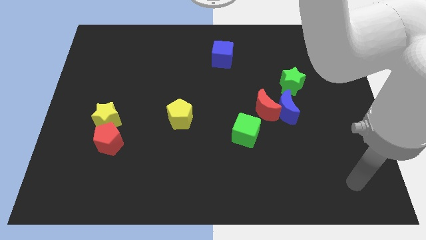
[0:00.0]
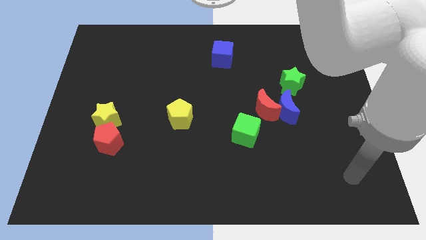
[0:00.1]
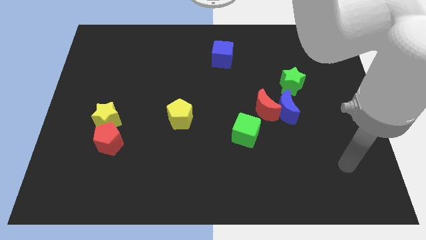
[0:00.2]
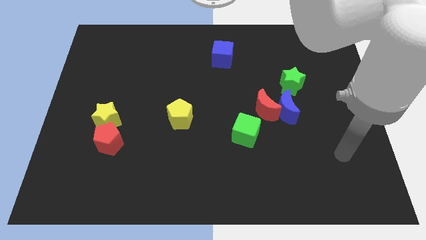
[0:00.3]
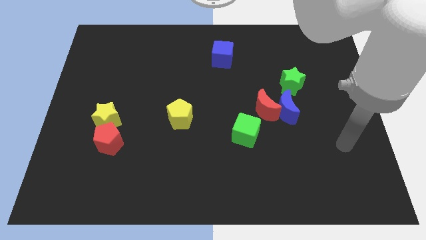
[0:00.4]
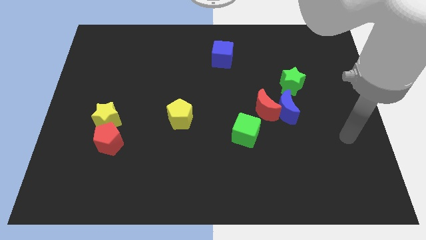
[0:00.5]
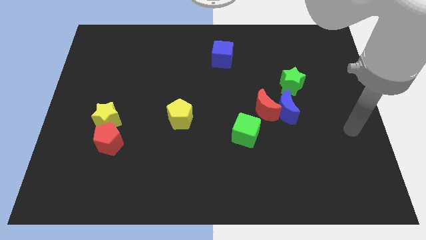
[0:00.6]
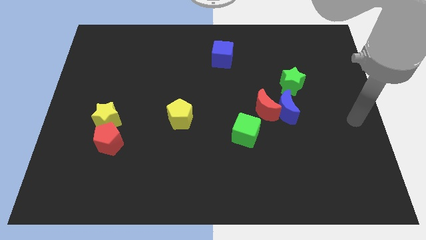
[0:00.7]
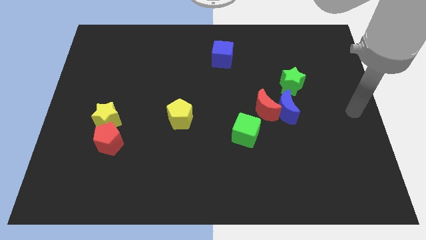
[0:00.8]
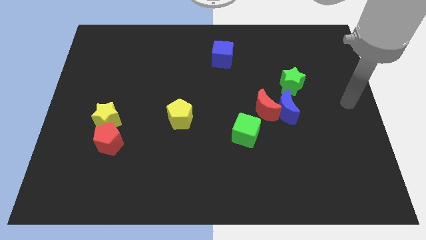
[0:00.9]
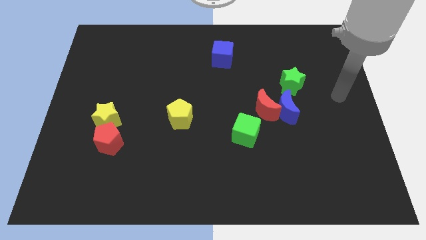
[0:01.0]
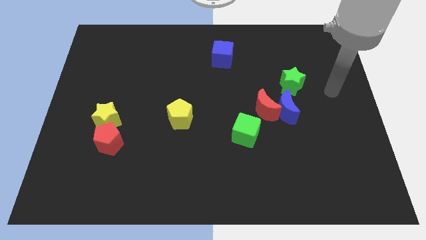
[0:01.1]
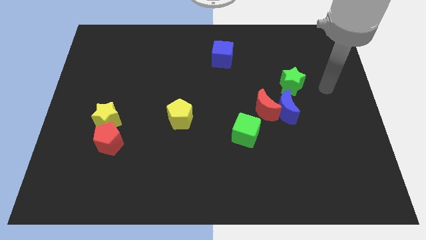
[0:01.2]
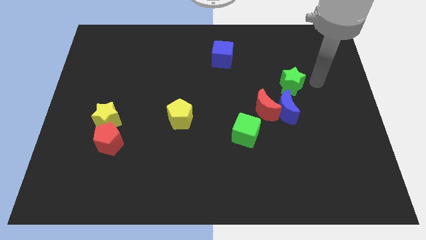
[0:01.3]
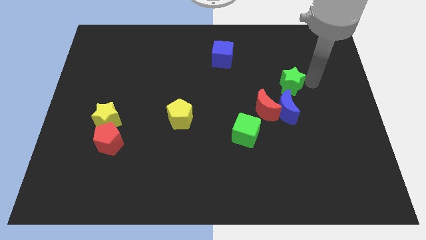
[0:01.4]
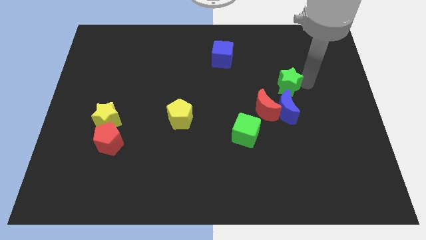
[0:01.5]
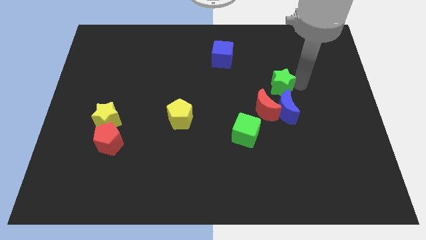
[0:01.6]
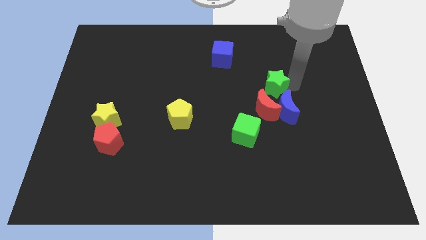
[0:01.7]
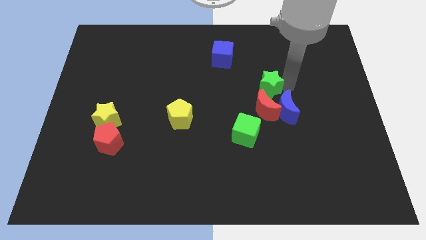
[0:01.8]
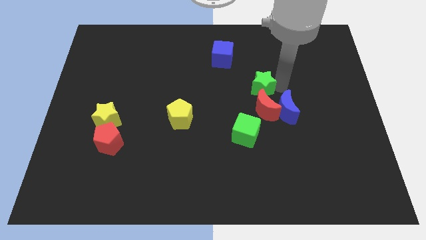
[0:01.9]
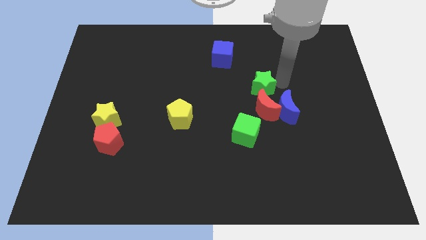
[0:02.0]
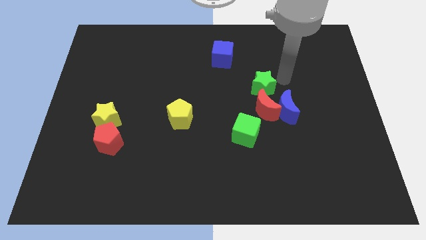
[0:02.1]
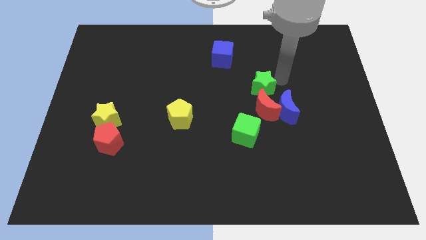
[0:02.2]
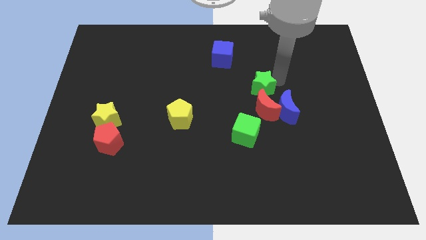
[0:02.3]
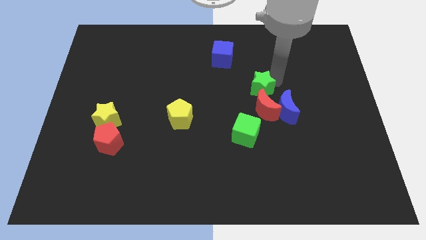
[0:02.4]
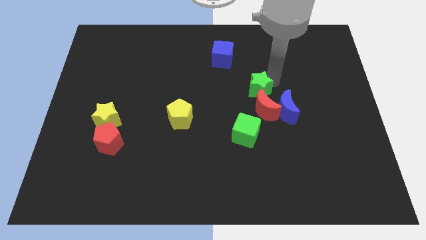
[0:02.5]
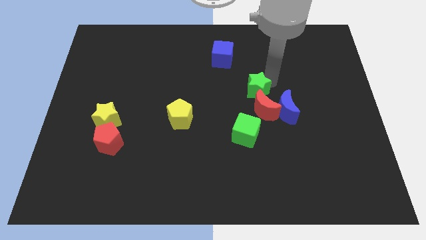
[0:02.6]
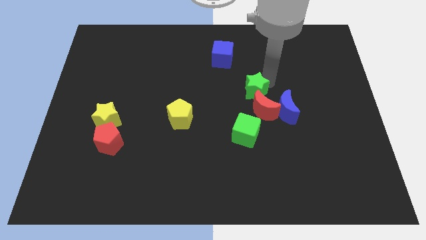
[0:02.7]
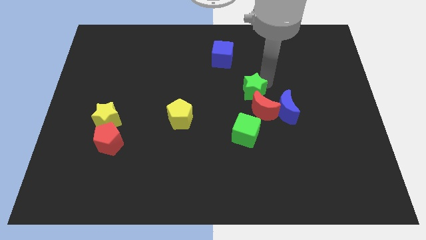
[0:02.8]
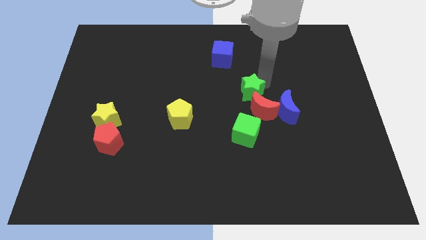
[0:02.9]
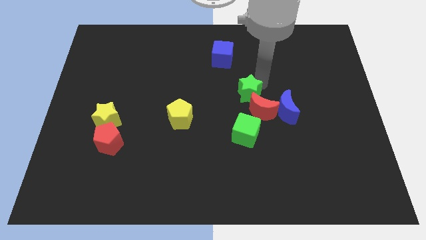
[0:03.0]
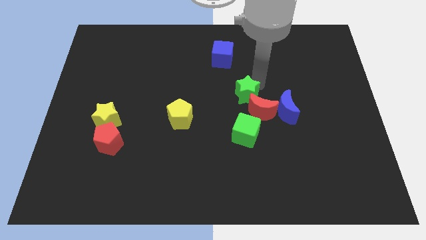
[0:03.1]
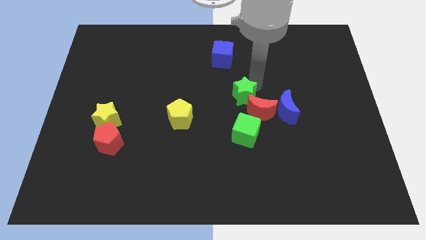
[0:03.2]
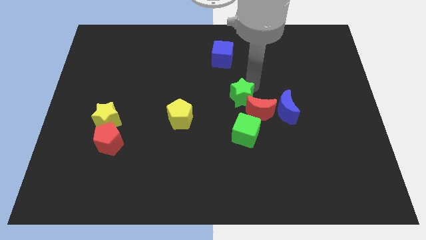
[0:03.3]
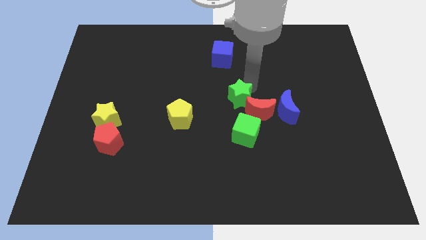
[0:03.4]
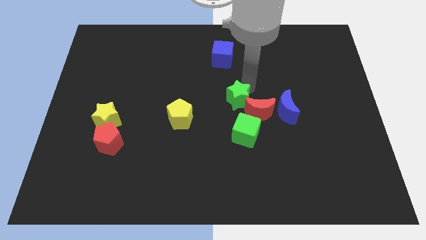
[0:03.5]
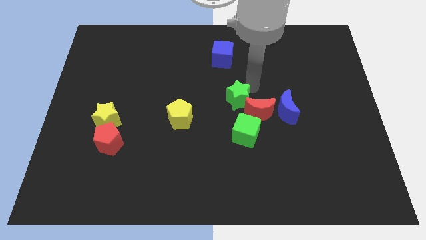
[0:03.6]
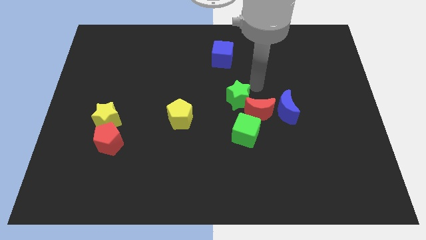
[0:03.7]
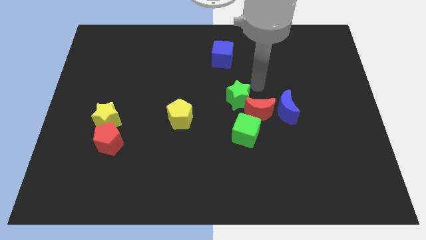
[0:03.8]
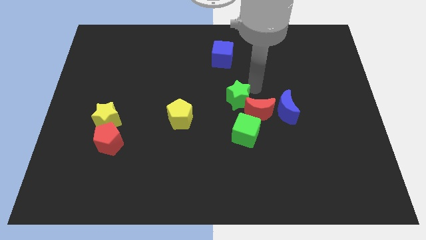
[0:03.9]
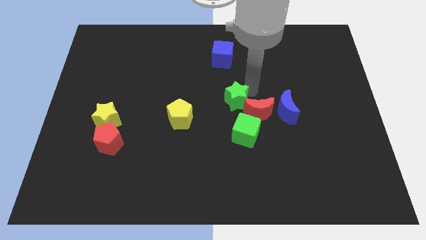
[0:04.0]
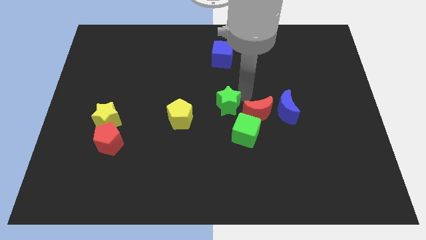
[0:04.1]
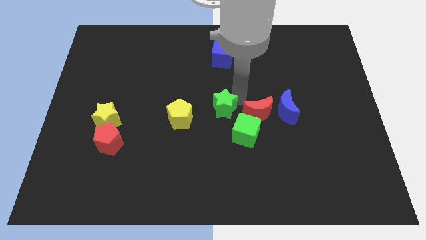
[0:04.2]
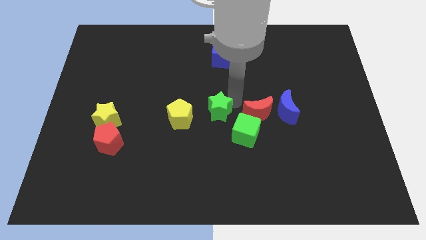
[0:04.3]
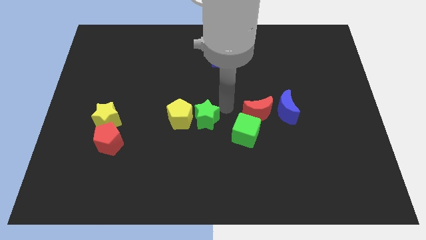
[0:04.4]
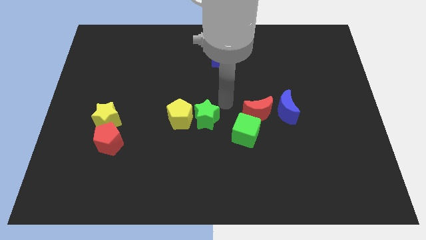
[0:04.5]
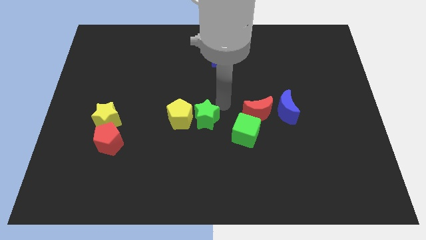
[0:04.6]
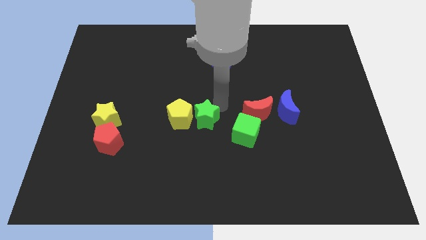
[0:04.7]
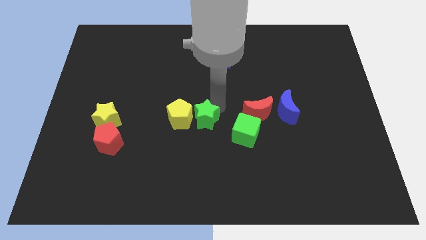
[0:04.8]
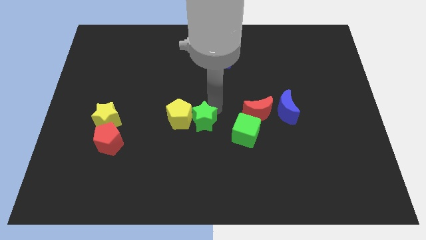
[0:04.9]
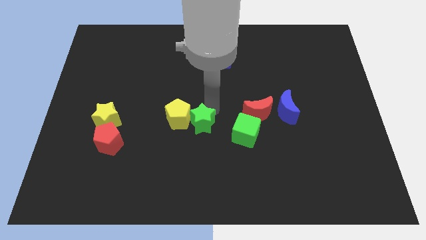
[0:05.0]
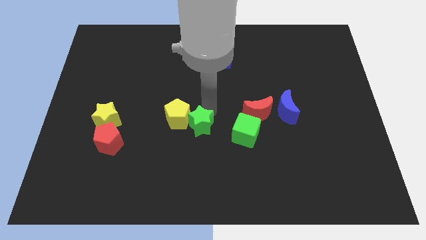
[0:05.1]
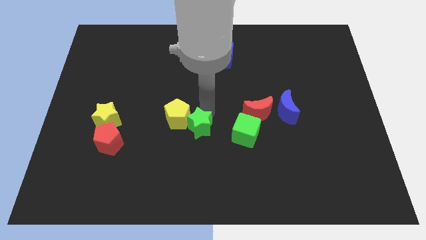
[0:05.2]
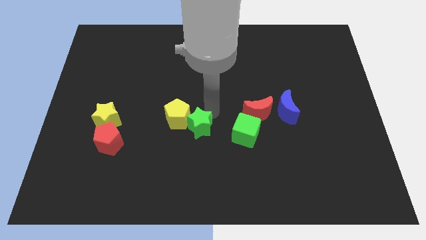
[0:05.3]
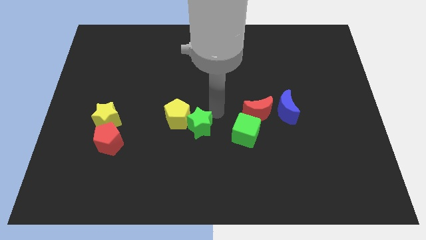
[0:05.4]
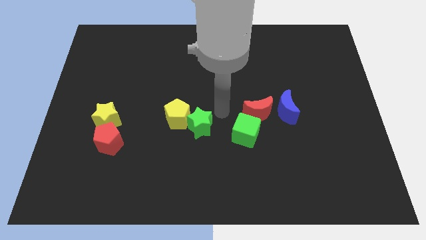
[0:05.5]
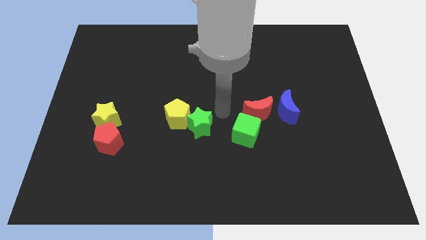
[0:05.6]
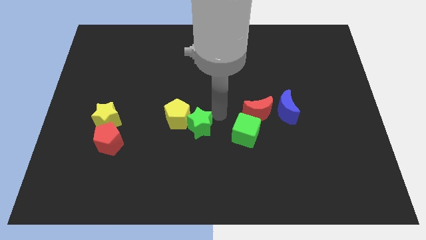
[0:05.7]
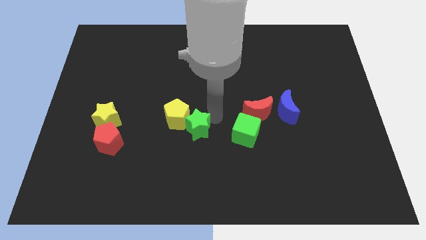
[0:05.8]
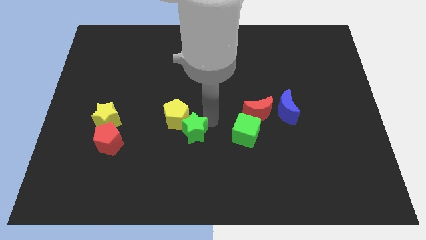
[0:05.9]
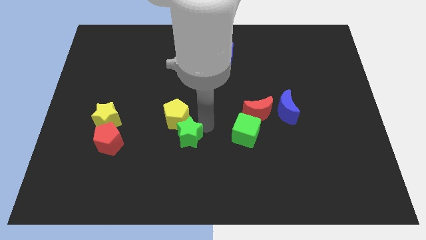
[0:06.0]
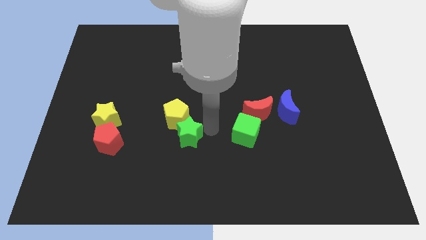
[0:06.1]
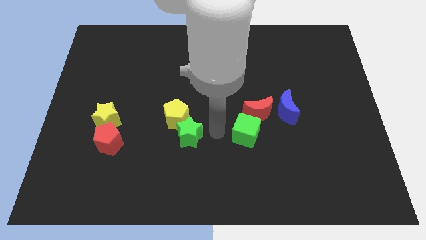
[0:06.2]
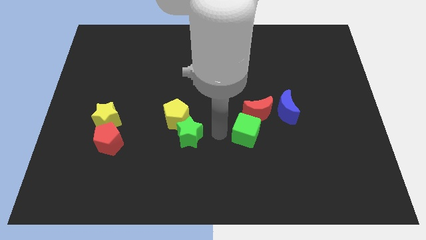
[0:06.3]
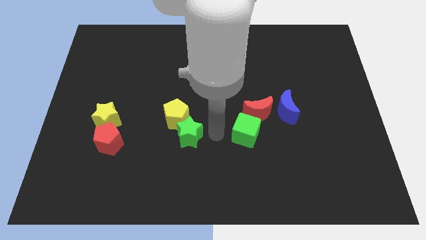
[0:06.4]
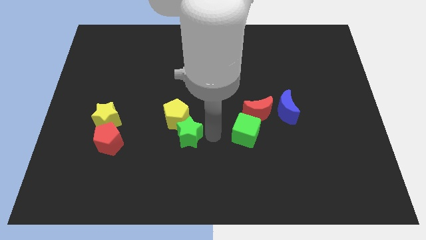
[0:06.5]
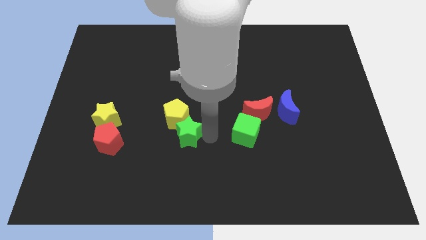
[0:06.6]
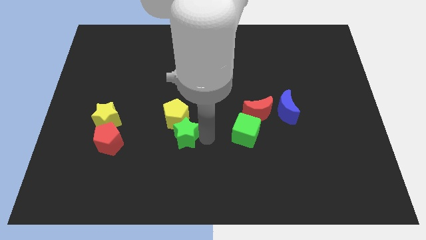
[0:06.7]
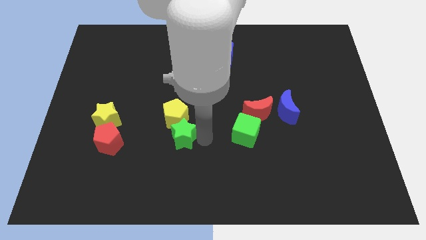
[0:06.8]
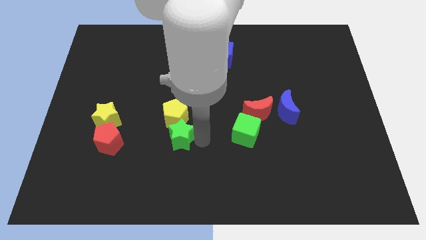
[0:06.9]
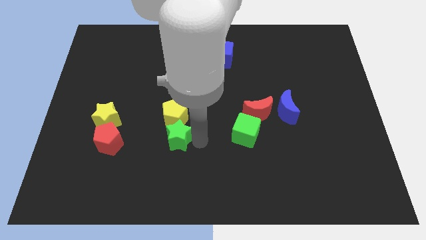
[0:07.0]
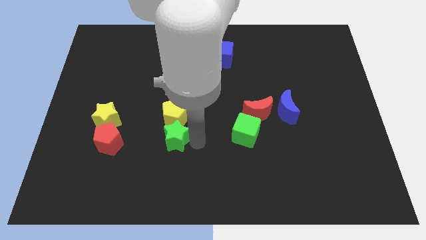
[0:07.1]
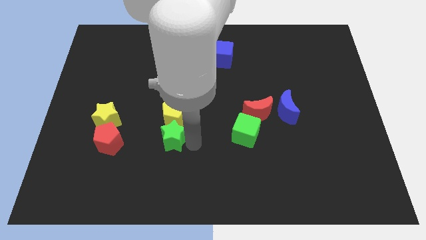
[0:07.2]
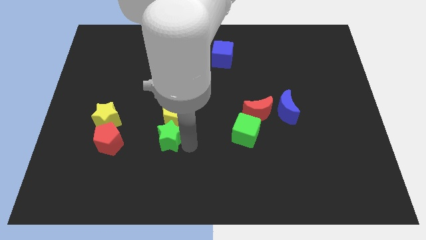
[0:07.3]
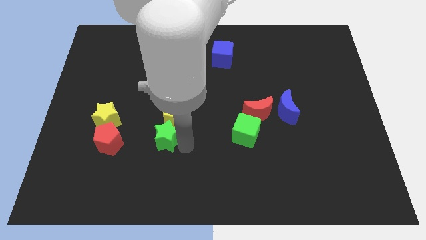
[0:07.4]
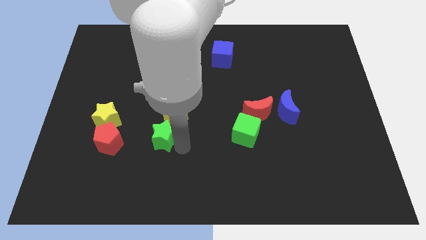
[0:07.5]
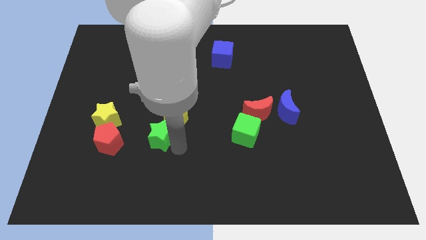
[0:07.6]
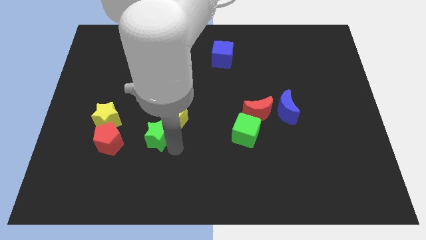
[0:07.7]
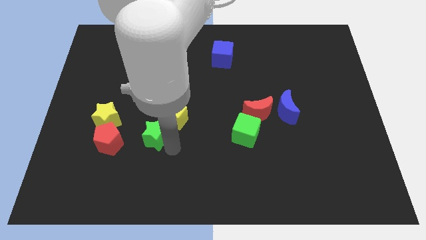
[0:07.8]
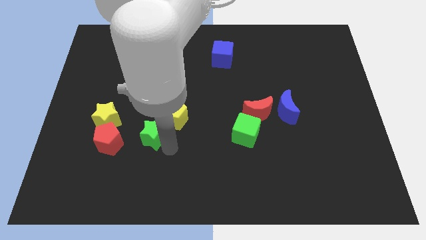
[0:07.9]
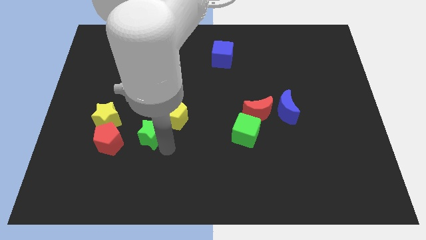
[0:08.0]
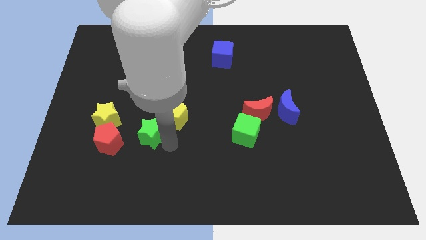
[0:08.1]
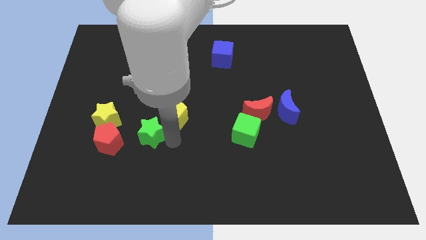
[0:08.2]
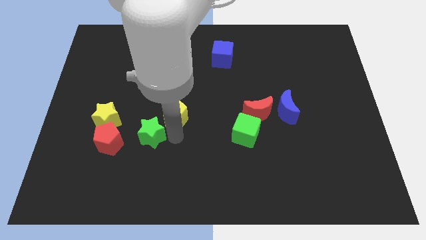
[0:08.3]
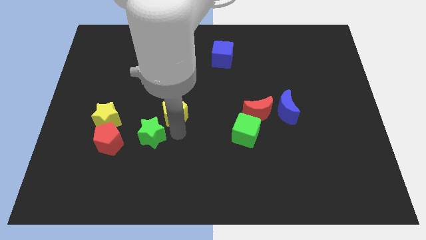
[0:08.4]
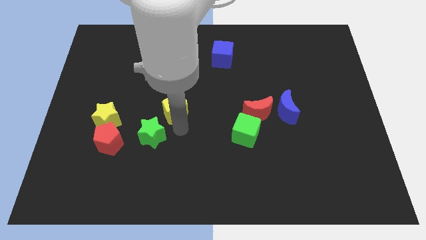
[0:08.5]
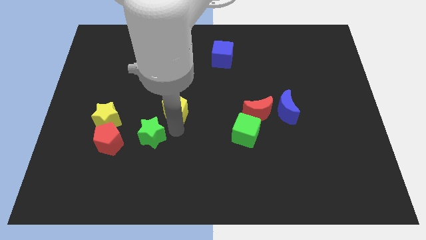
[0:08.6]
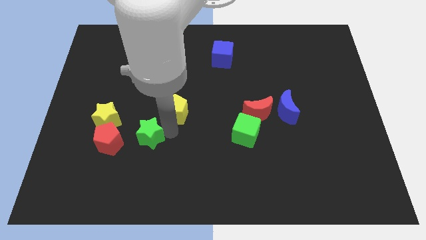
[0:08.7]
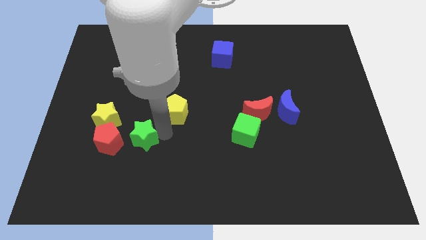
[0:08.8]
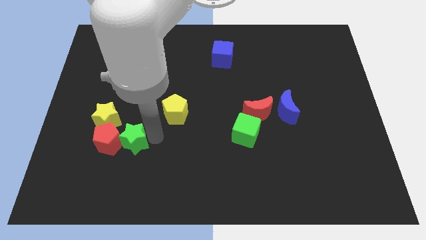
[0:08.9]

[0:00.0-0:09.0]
put the green star to the red pentagon
